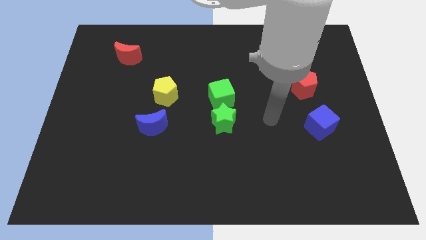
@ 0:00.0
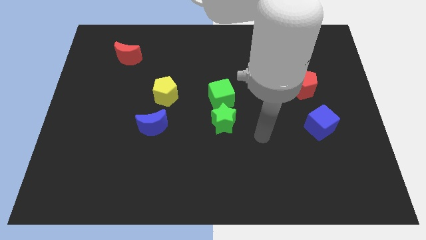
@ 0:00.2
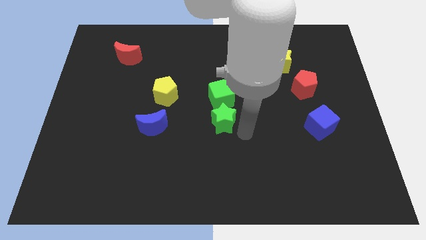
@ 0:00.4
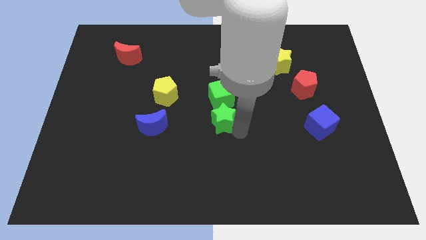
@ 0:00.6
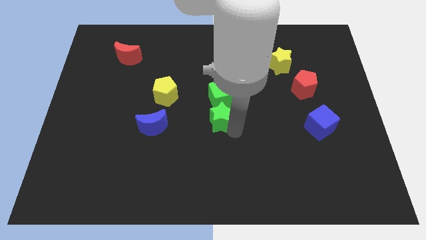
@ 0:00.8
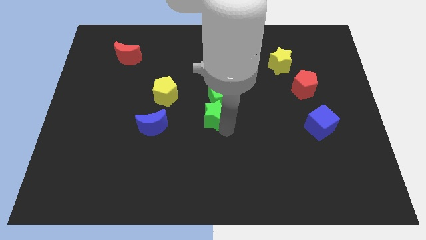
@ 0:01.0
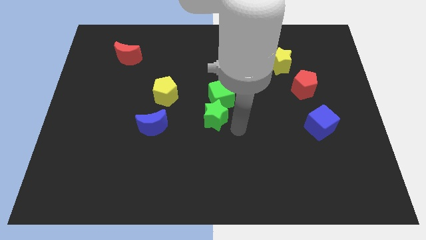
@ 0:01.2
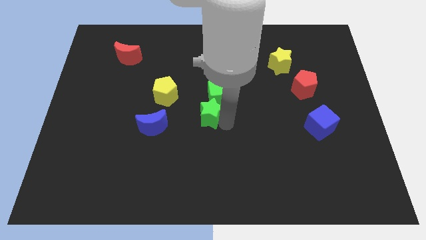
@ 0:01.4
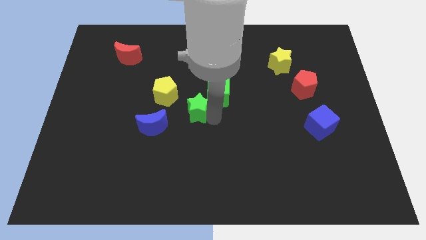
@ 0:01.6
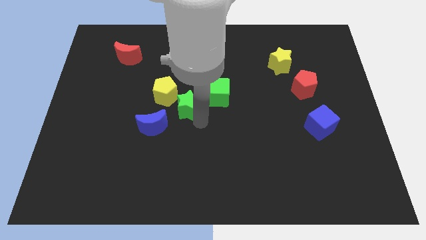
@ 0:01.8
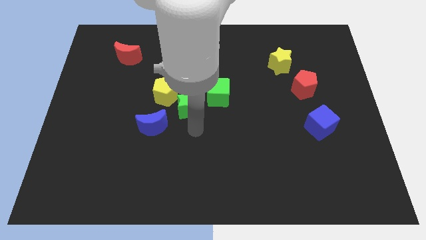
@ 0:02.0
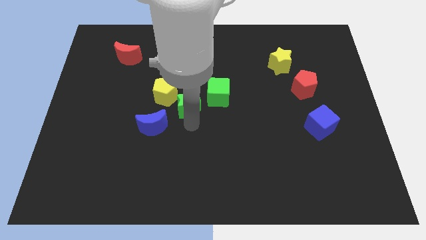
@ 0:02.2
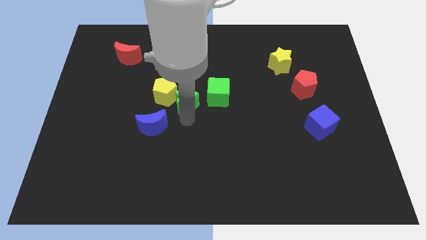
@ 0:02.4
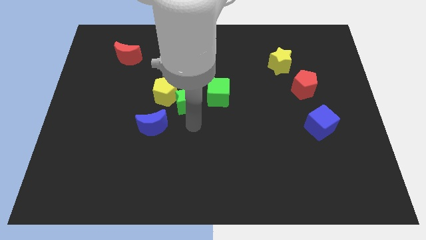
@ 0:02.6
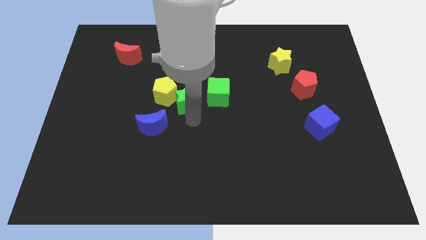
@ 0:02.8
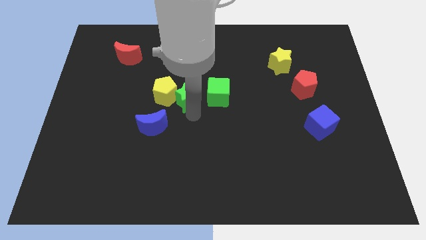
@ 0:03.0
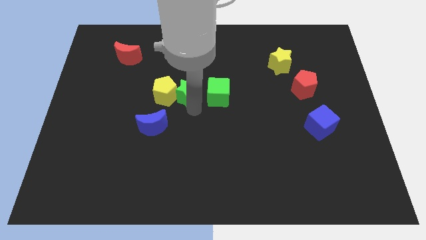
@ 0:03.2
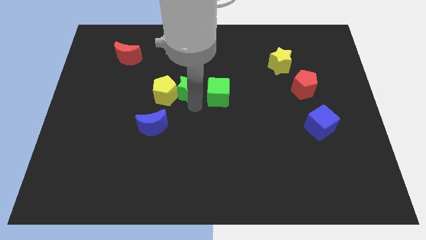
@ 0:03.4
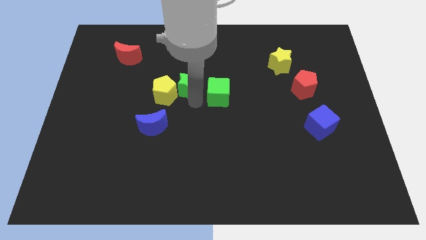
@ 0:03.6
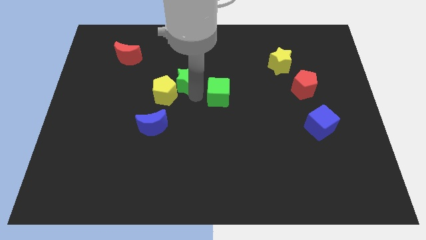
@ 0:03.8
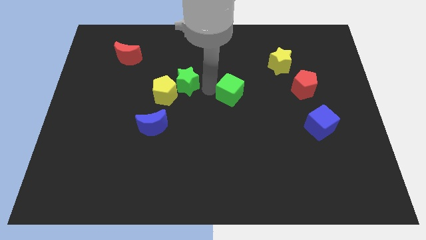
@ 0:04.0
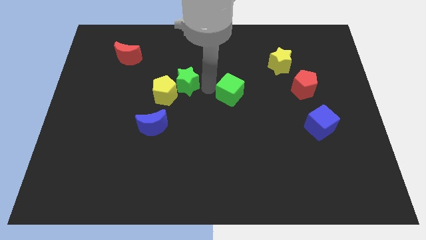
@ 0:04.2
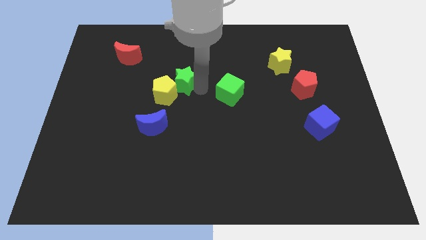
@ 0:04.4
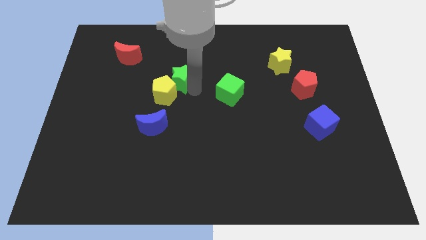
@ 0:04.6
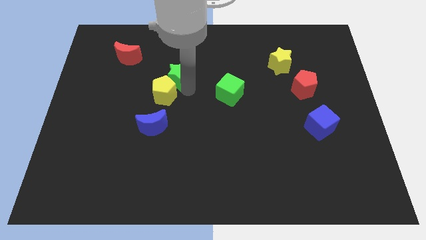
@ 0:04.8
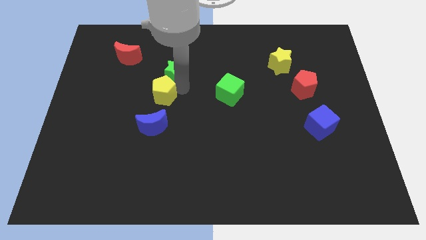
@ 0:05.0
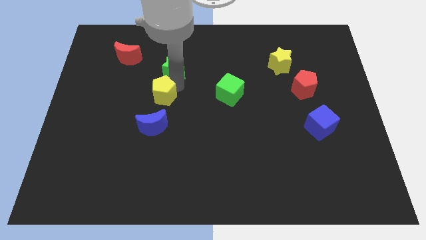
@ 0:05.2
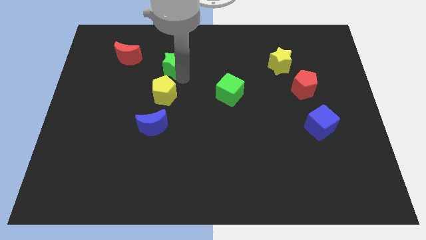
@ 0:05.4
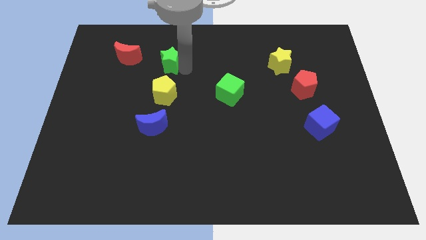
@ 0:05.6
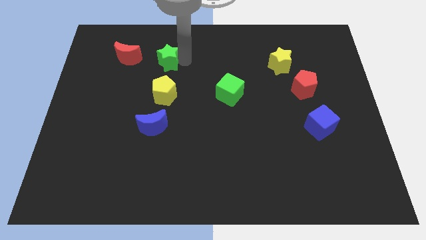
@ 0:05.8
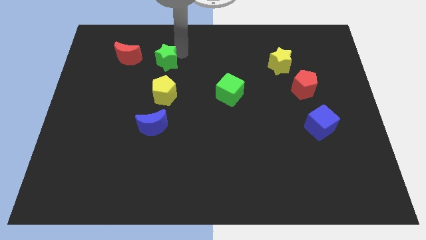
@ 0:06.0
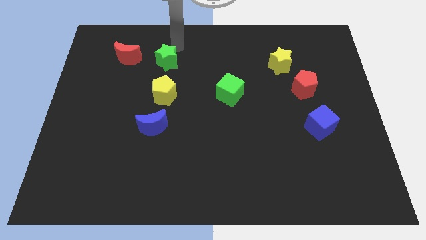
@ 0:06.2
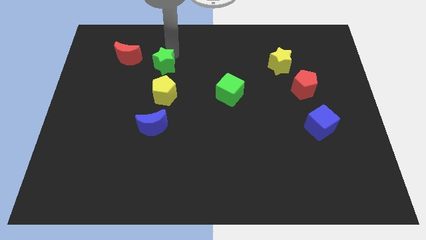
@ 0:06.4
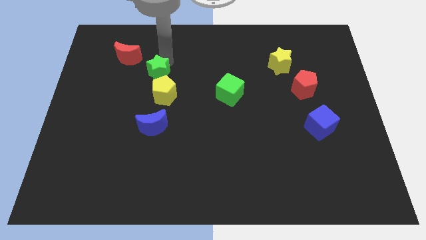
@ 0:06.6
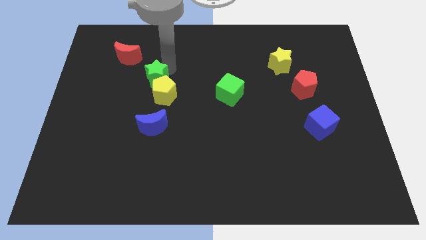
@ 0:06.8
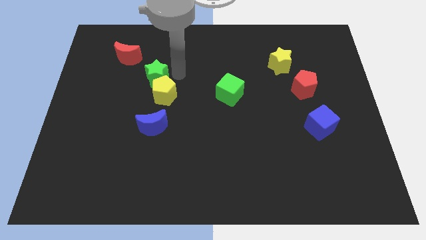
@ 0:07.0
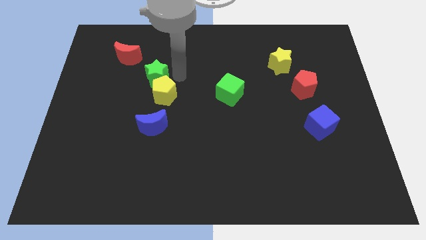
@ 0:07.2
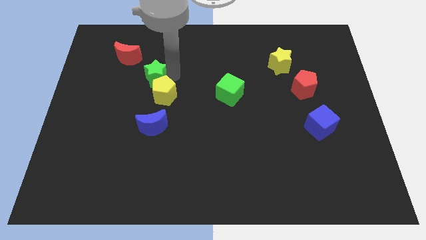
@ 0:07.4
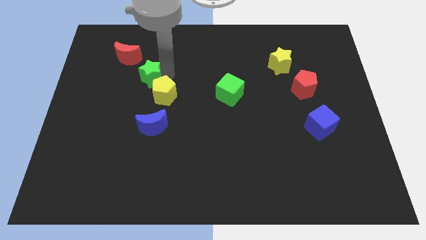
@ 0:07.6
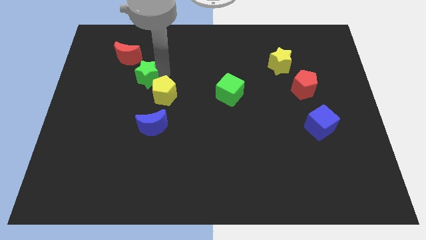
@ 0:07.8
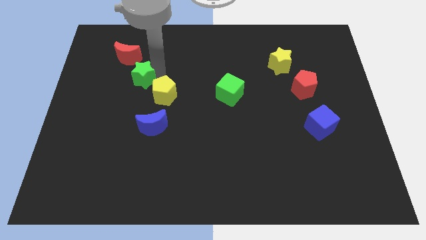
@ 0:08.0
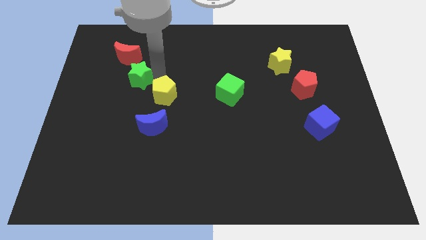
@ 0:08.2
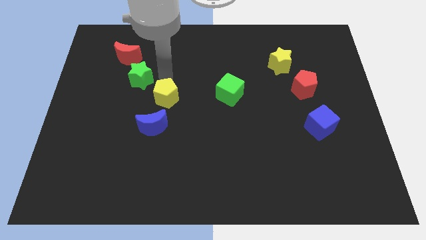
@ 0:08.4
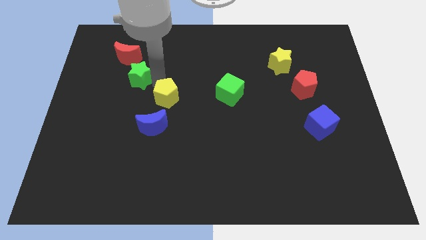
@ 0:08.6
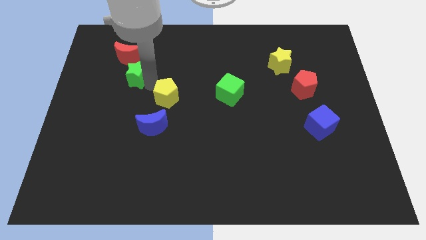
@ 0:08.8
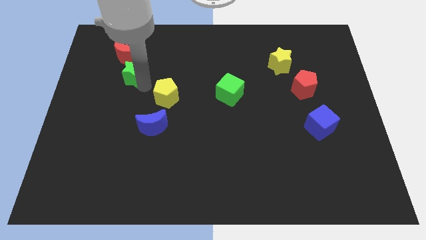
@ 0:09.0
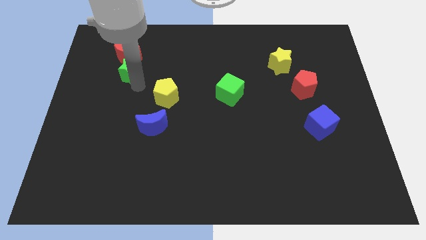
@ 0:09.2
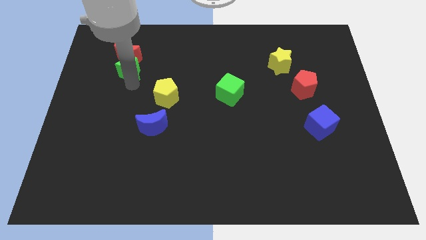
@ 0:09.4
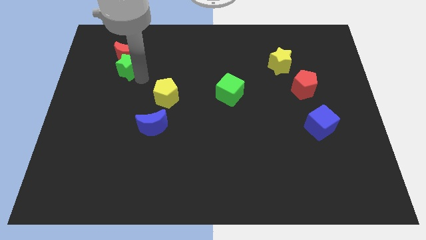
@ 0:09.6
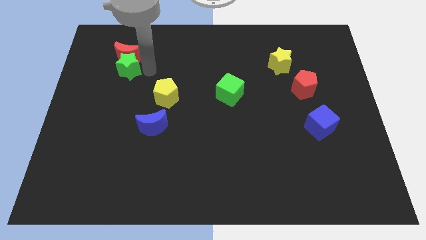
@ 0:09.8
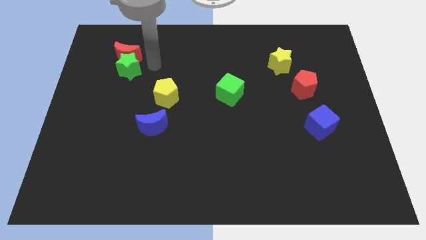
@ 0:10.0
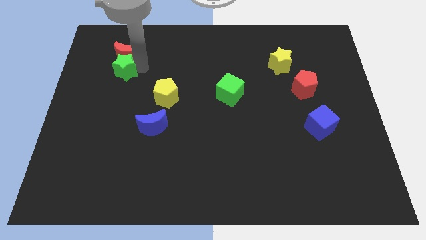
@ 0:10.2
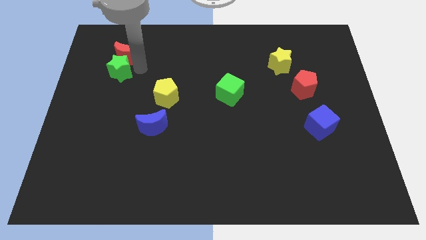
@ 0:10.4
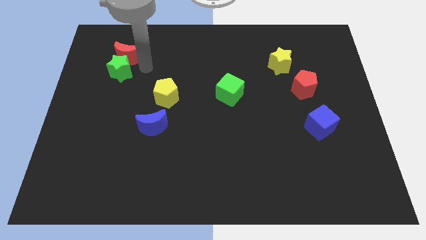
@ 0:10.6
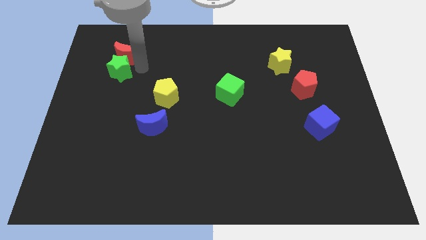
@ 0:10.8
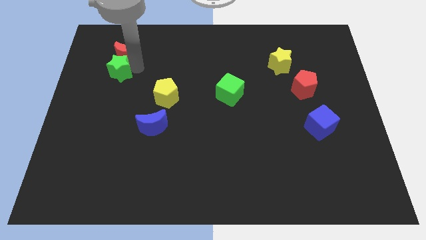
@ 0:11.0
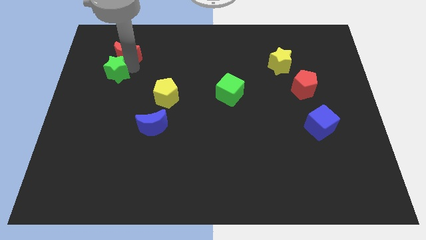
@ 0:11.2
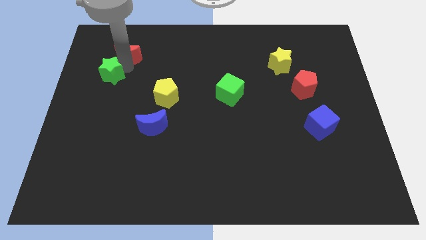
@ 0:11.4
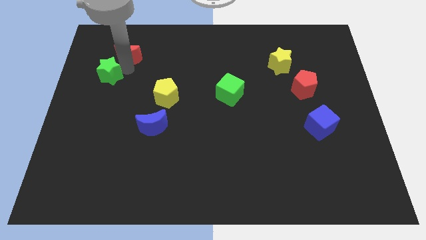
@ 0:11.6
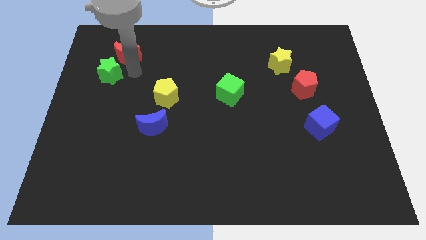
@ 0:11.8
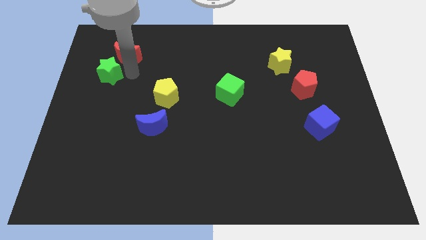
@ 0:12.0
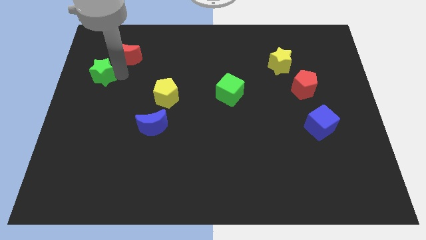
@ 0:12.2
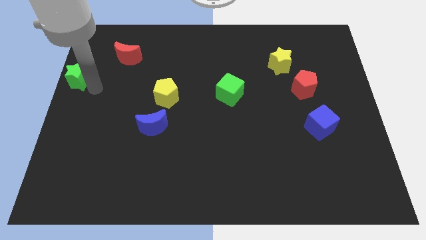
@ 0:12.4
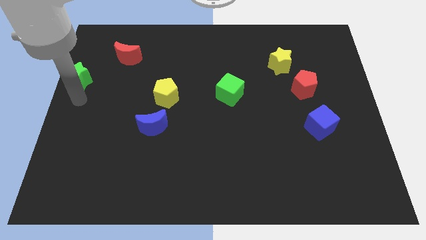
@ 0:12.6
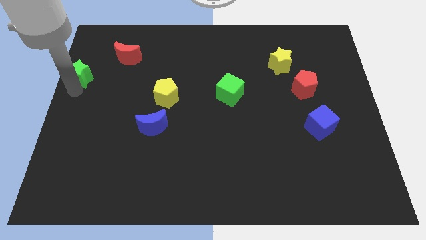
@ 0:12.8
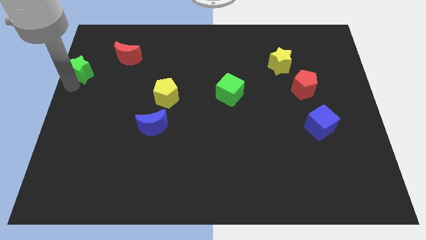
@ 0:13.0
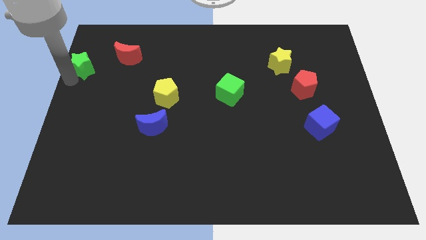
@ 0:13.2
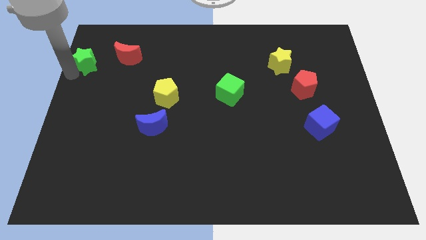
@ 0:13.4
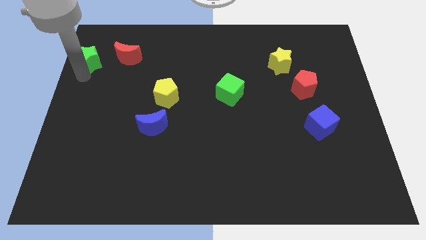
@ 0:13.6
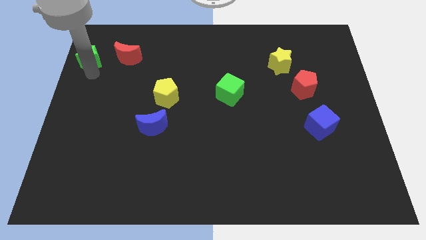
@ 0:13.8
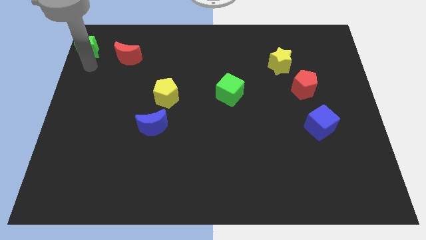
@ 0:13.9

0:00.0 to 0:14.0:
put the green star to the top left of the board
